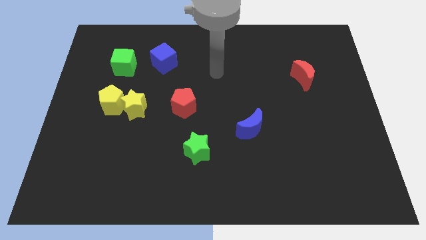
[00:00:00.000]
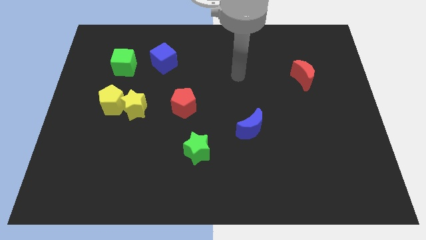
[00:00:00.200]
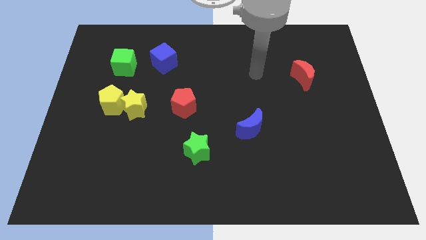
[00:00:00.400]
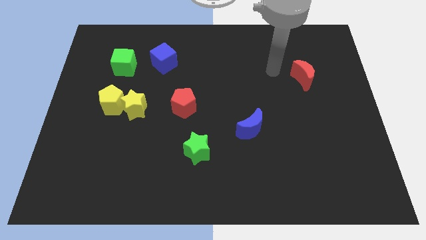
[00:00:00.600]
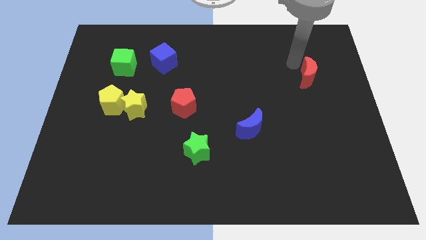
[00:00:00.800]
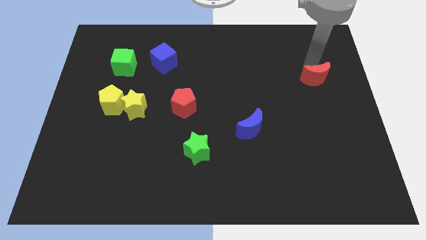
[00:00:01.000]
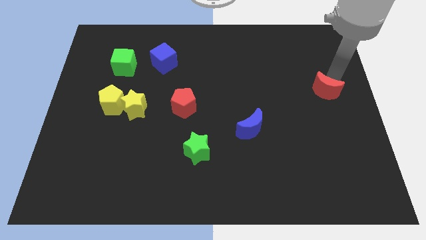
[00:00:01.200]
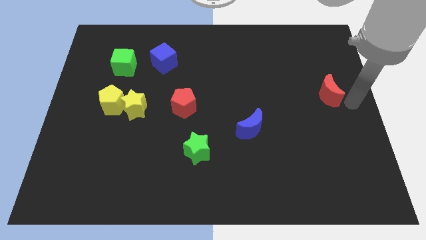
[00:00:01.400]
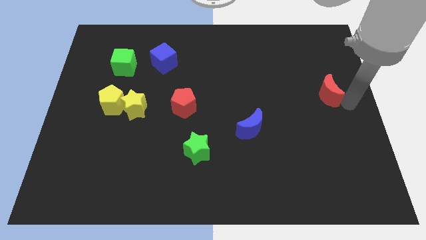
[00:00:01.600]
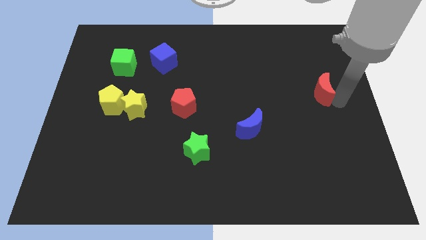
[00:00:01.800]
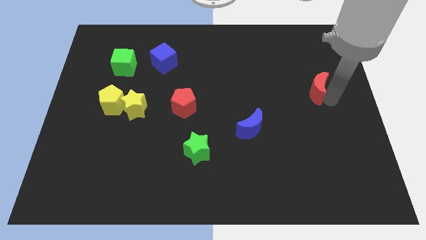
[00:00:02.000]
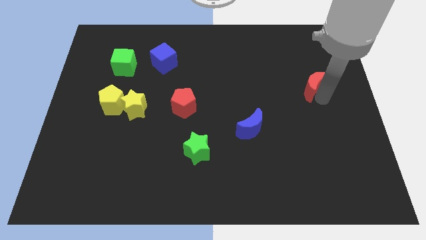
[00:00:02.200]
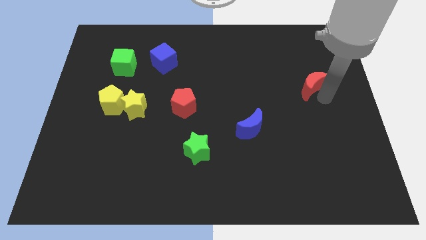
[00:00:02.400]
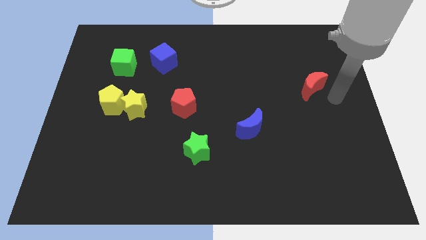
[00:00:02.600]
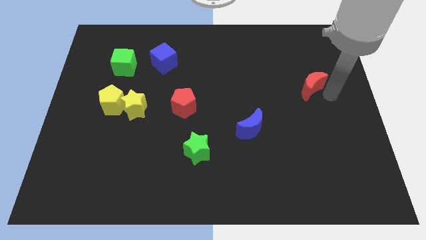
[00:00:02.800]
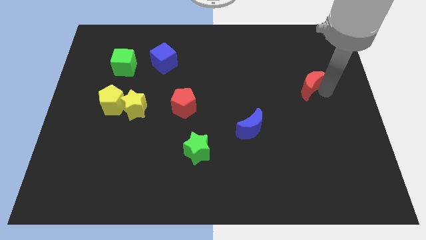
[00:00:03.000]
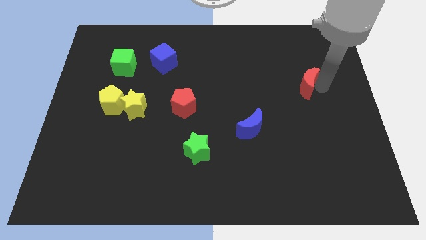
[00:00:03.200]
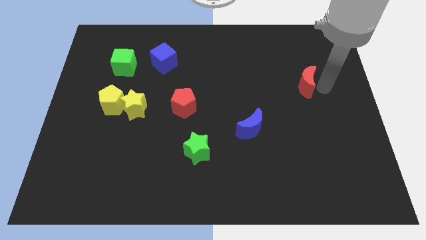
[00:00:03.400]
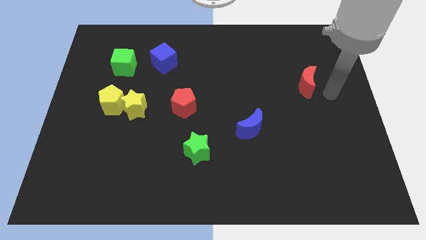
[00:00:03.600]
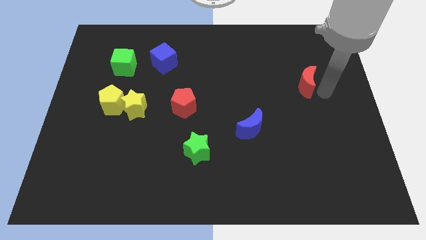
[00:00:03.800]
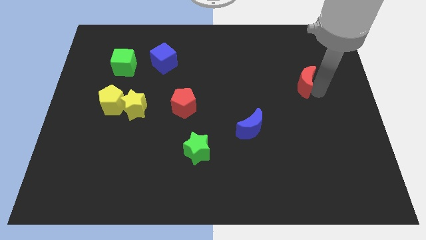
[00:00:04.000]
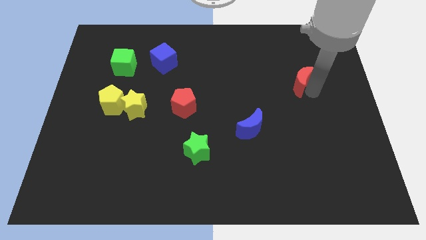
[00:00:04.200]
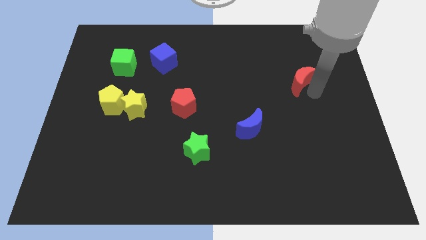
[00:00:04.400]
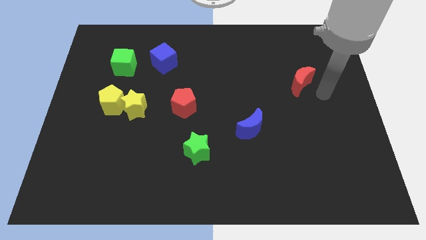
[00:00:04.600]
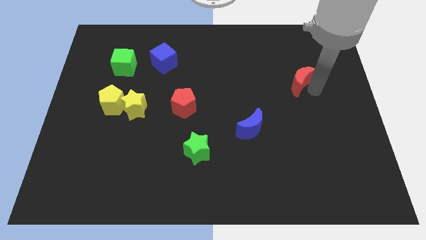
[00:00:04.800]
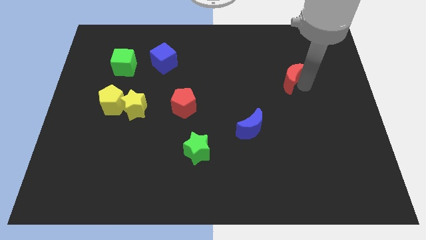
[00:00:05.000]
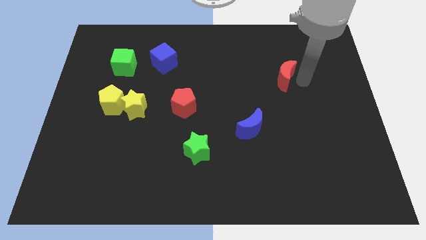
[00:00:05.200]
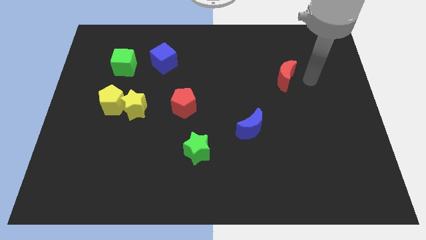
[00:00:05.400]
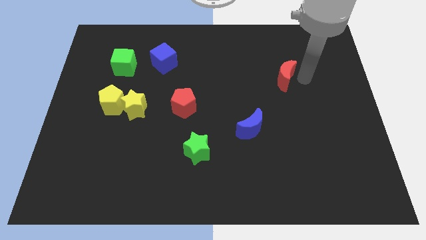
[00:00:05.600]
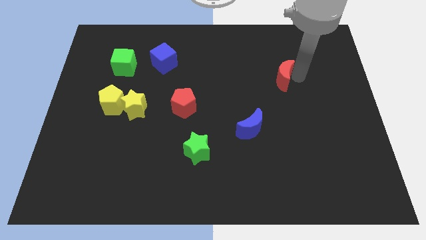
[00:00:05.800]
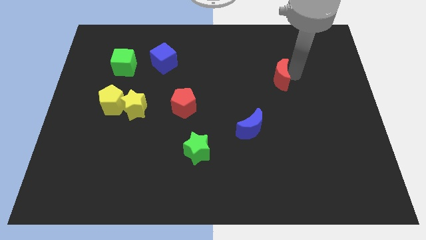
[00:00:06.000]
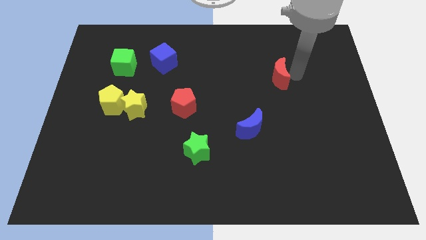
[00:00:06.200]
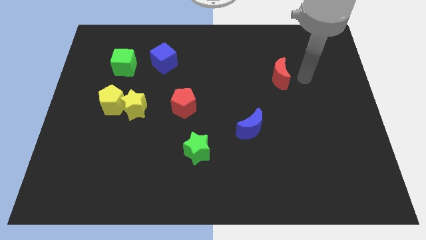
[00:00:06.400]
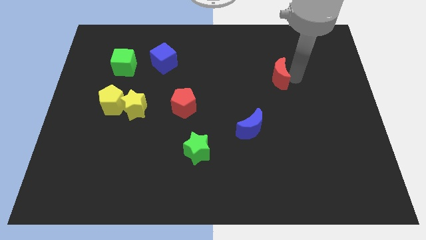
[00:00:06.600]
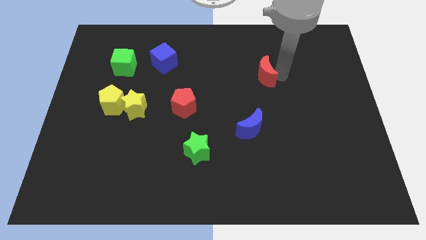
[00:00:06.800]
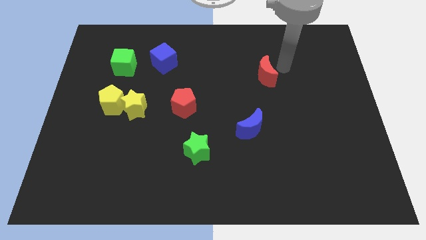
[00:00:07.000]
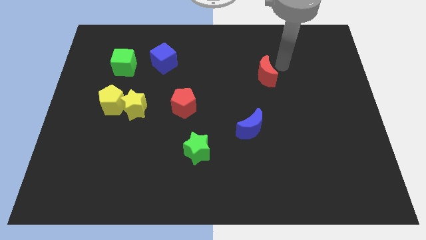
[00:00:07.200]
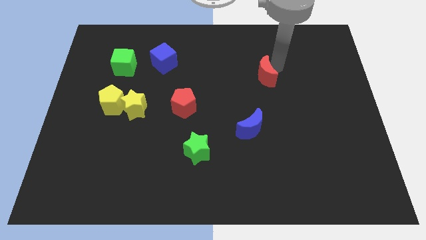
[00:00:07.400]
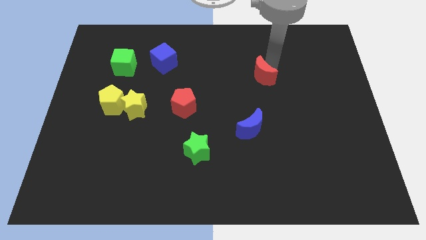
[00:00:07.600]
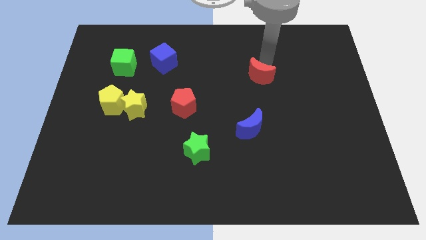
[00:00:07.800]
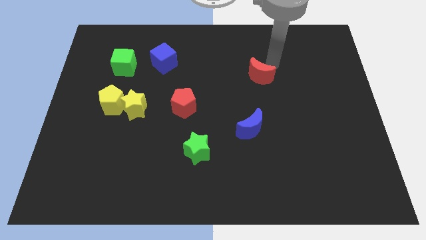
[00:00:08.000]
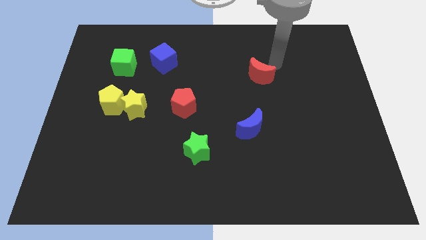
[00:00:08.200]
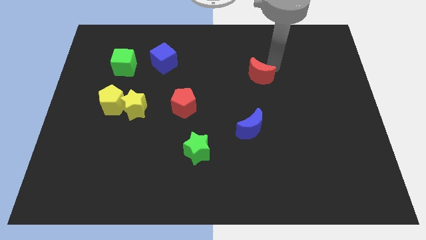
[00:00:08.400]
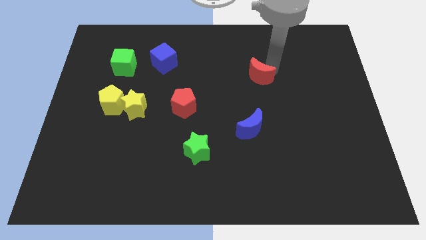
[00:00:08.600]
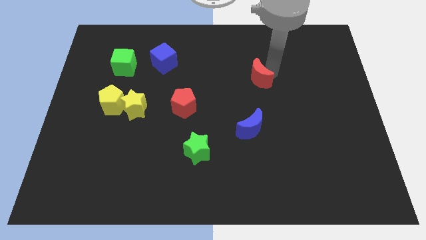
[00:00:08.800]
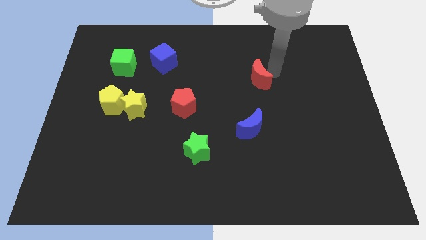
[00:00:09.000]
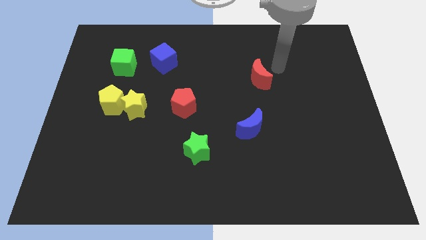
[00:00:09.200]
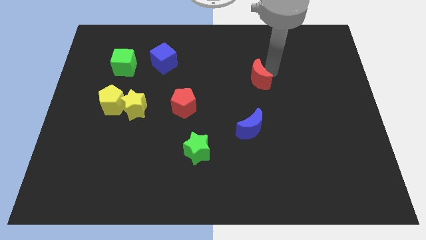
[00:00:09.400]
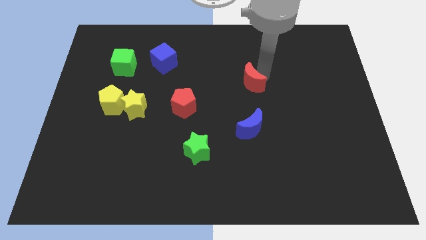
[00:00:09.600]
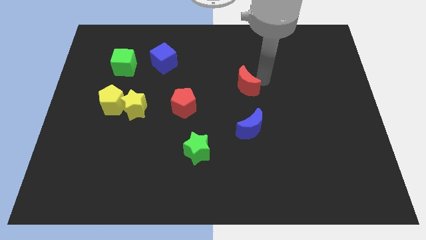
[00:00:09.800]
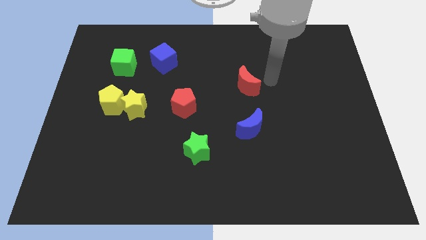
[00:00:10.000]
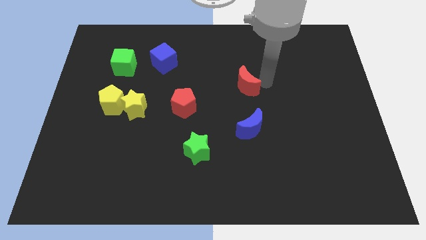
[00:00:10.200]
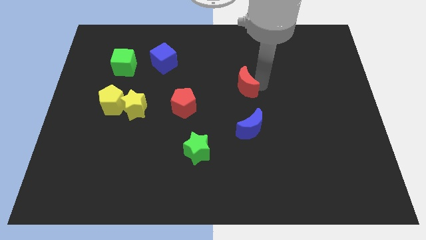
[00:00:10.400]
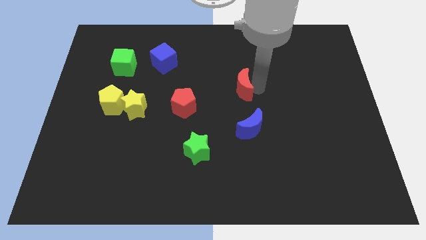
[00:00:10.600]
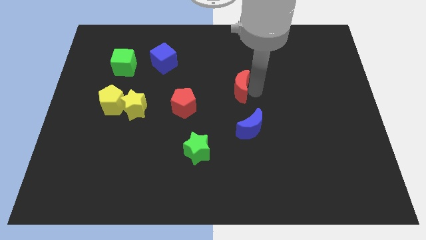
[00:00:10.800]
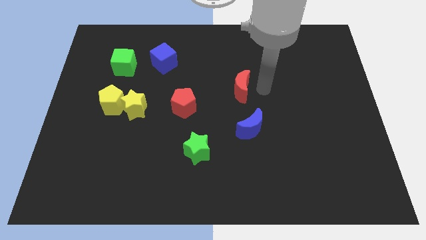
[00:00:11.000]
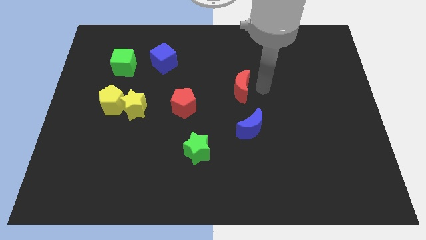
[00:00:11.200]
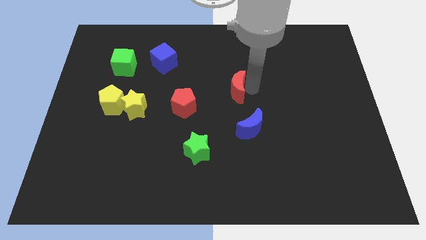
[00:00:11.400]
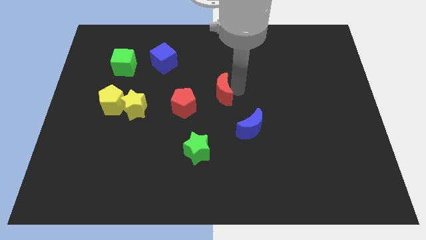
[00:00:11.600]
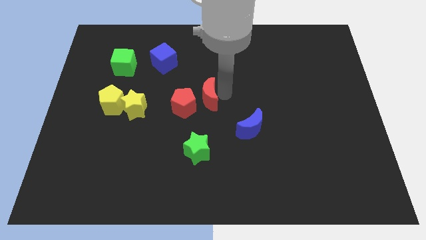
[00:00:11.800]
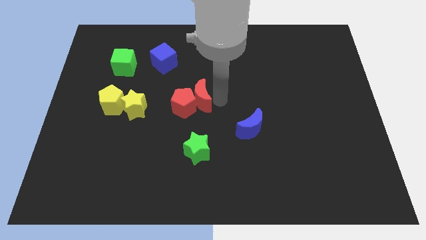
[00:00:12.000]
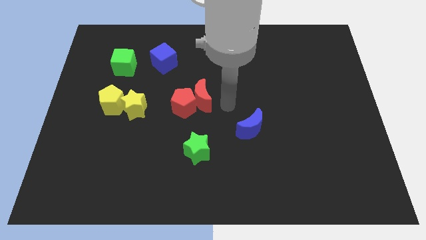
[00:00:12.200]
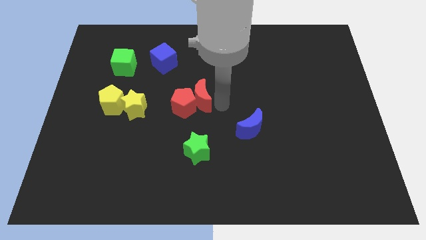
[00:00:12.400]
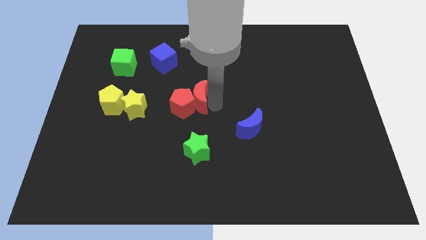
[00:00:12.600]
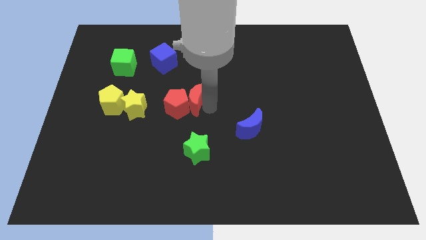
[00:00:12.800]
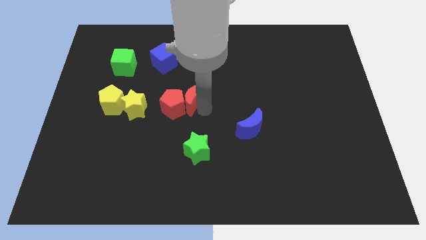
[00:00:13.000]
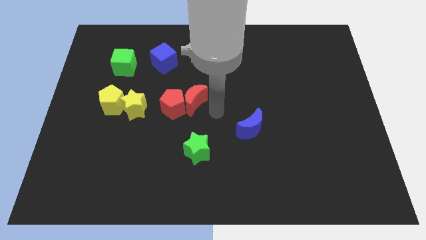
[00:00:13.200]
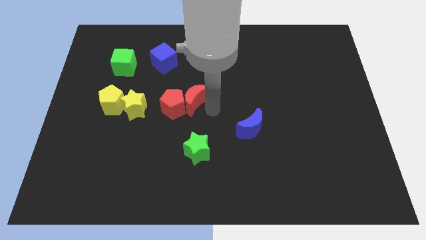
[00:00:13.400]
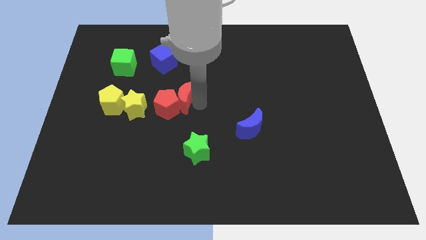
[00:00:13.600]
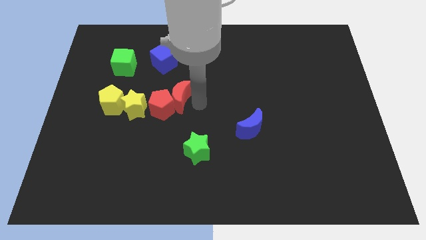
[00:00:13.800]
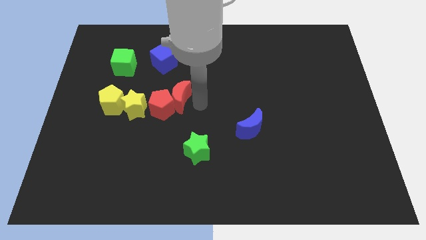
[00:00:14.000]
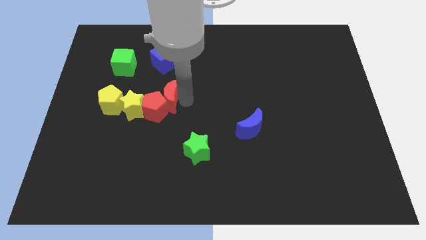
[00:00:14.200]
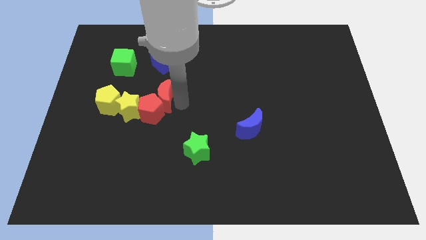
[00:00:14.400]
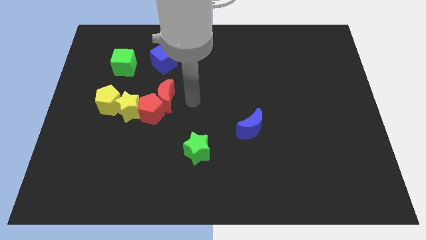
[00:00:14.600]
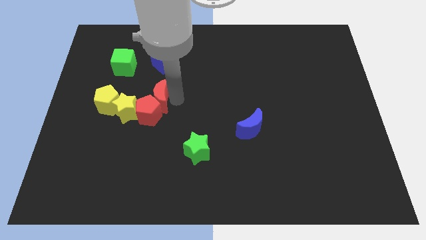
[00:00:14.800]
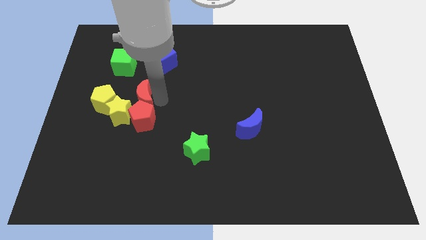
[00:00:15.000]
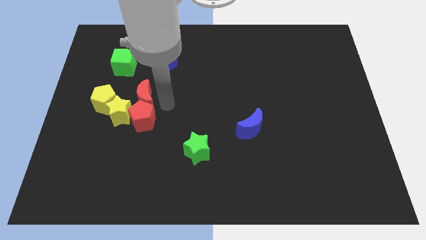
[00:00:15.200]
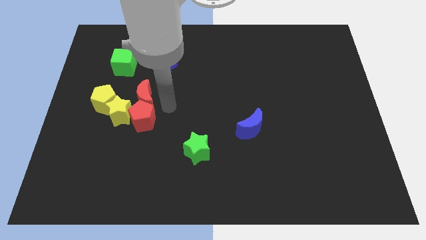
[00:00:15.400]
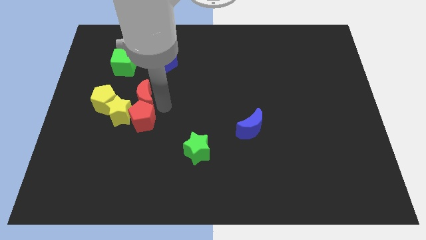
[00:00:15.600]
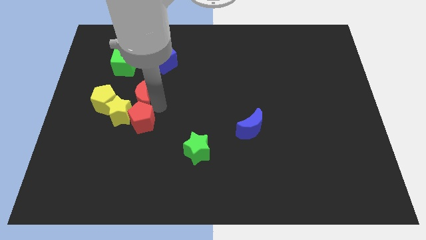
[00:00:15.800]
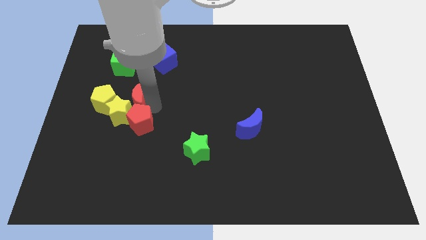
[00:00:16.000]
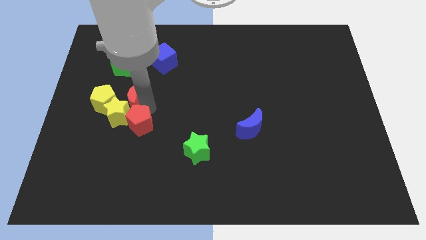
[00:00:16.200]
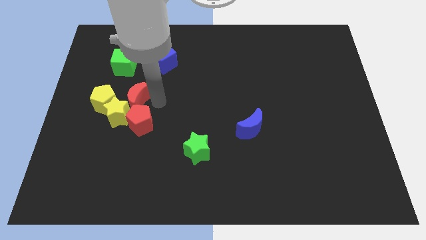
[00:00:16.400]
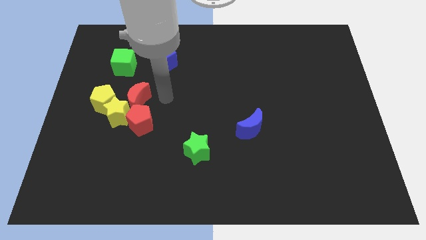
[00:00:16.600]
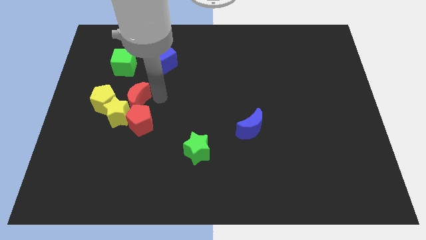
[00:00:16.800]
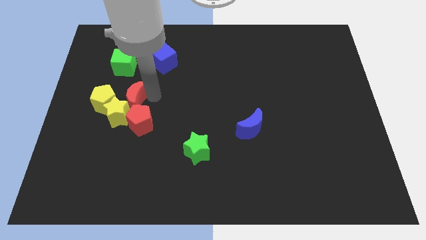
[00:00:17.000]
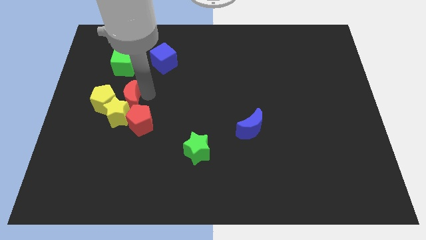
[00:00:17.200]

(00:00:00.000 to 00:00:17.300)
put the red moon next to the yellow pentagon
